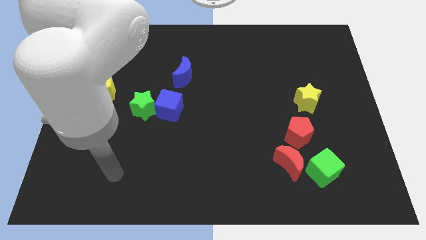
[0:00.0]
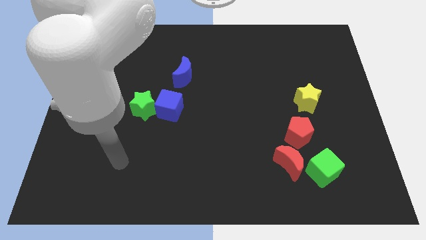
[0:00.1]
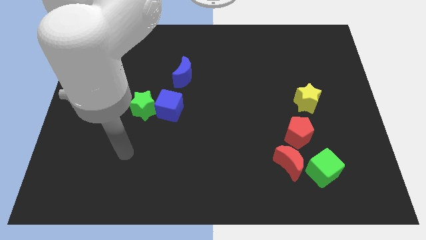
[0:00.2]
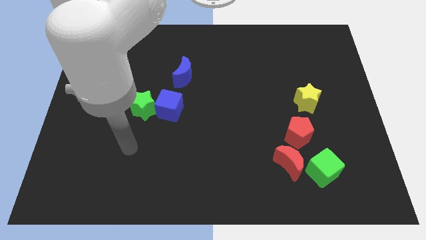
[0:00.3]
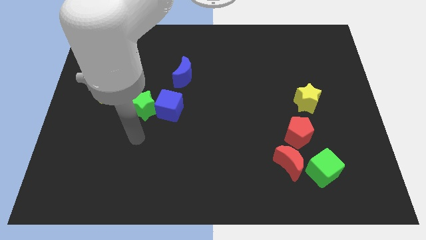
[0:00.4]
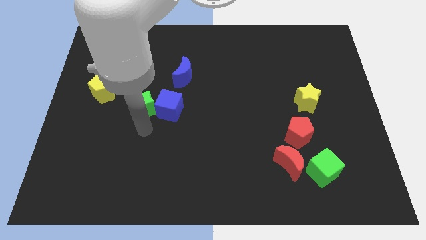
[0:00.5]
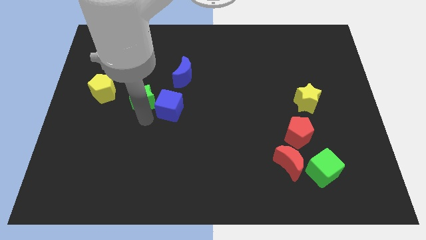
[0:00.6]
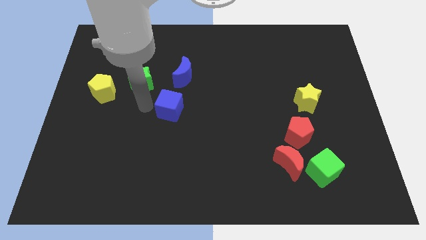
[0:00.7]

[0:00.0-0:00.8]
pull the blue cube apart from the green star

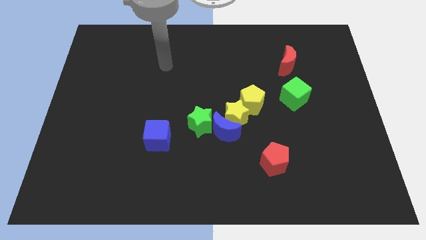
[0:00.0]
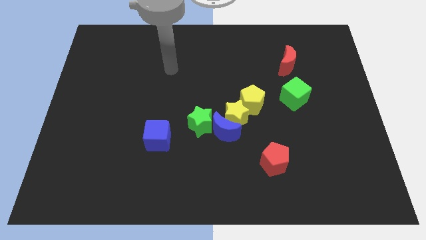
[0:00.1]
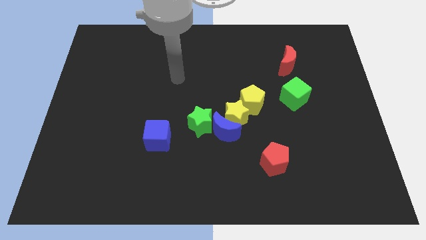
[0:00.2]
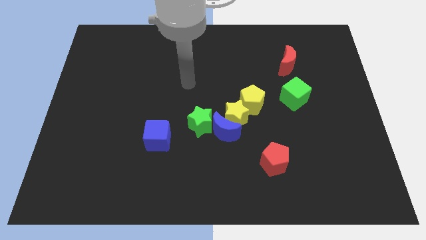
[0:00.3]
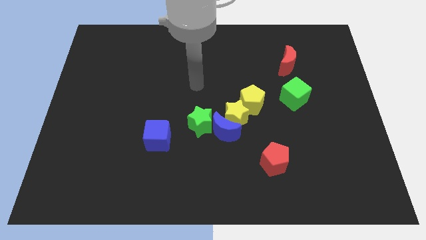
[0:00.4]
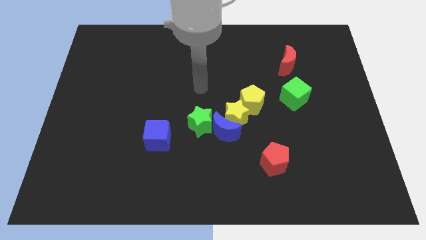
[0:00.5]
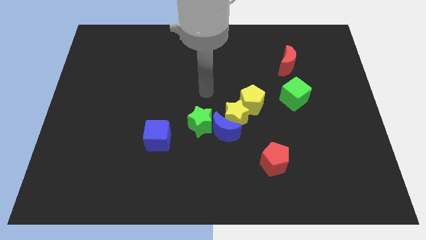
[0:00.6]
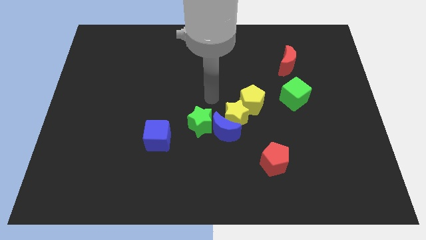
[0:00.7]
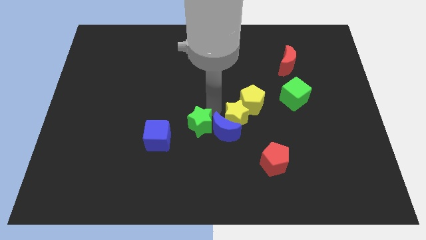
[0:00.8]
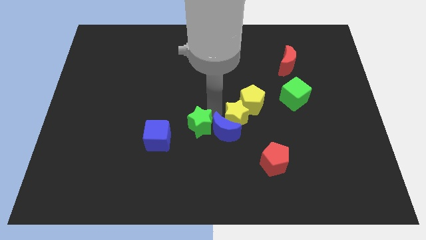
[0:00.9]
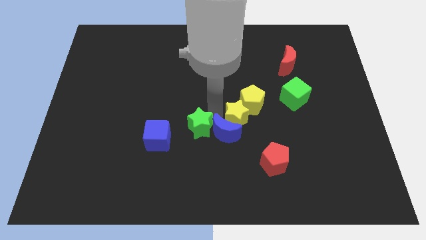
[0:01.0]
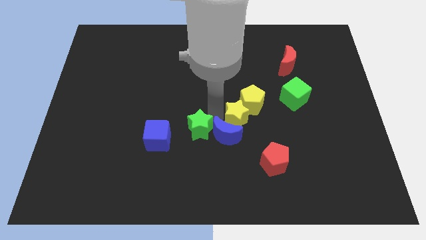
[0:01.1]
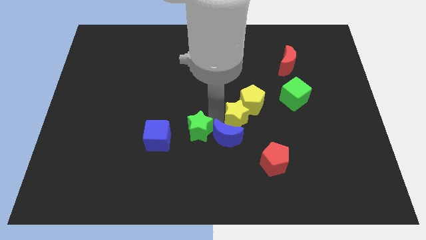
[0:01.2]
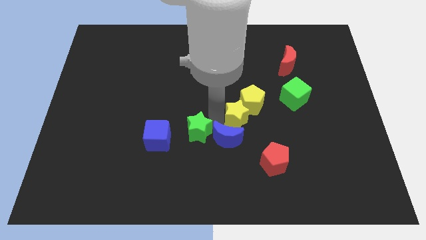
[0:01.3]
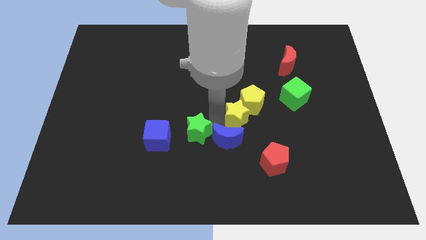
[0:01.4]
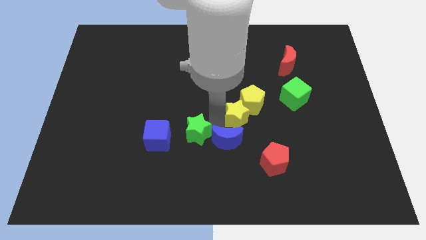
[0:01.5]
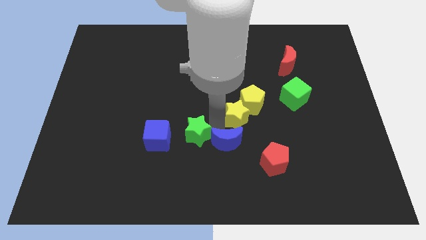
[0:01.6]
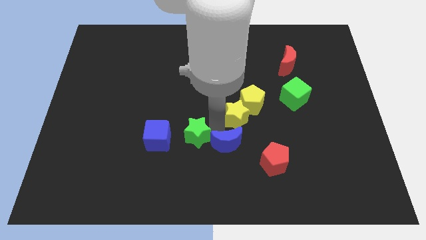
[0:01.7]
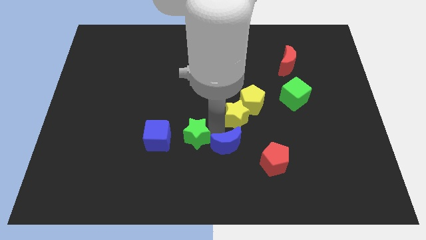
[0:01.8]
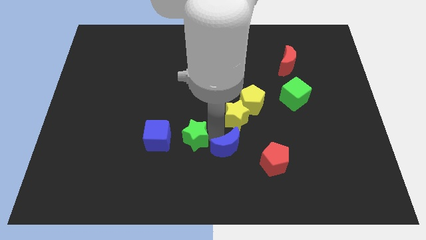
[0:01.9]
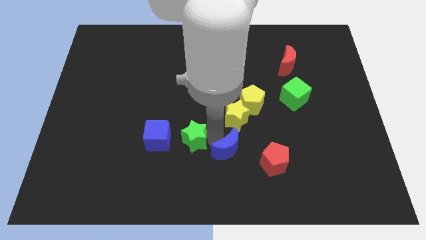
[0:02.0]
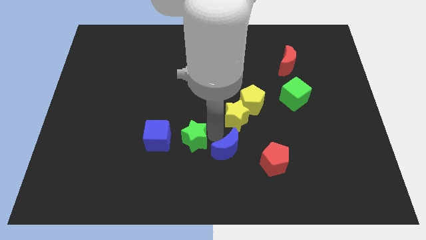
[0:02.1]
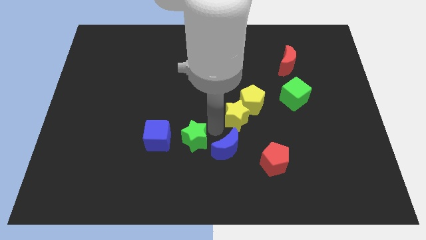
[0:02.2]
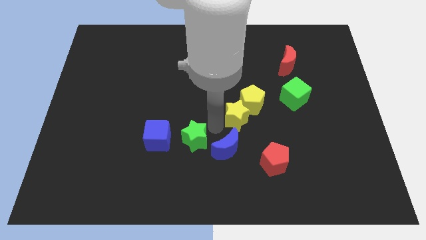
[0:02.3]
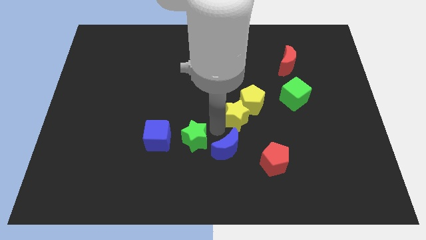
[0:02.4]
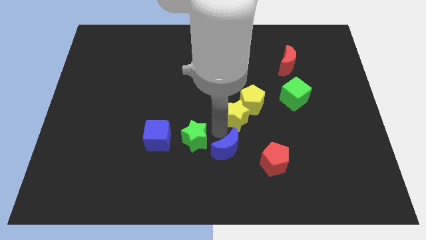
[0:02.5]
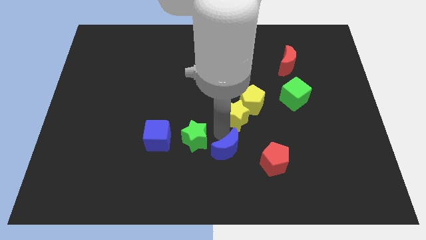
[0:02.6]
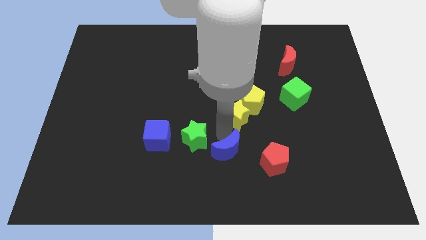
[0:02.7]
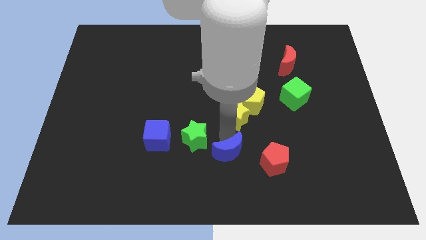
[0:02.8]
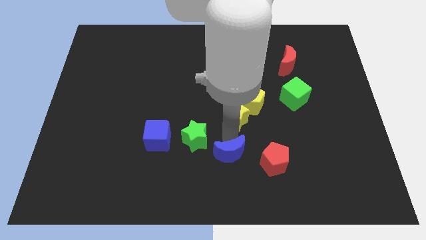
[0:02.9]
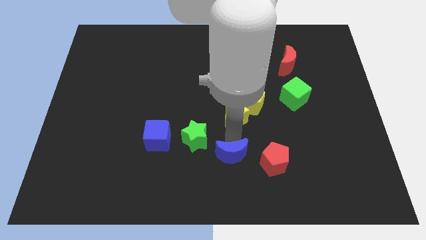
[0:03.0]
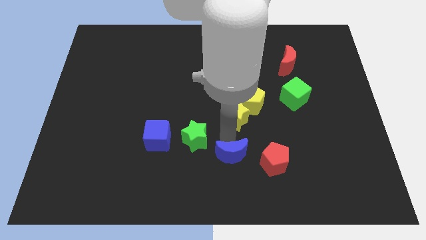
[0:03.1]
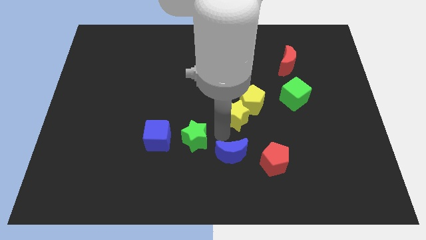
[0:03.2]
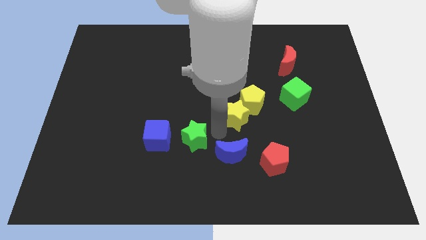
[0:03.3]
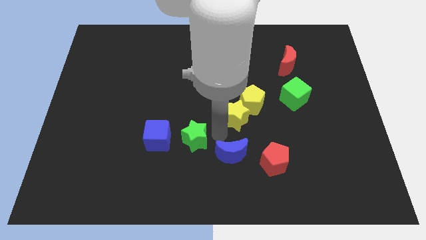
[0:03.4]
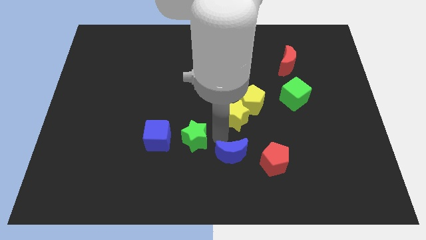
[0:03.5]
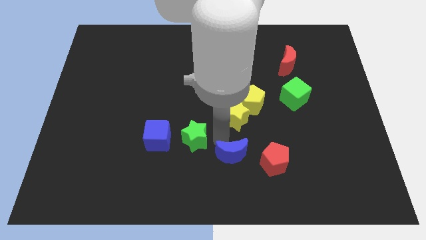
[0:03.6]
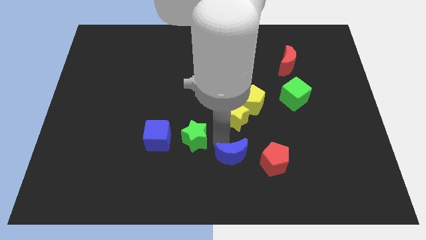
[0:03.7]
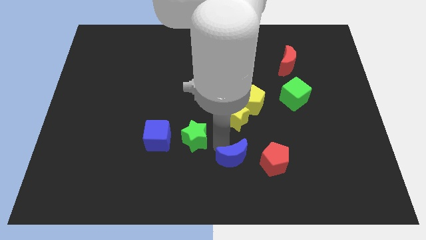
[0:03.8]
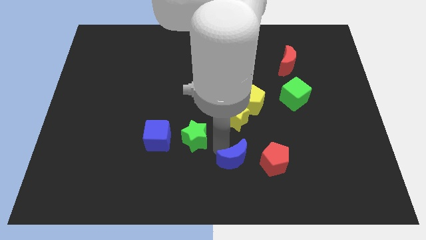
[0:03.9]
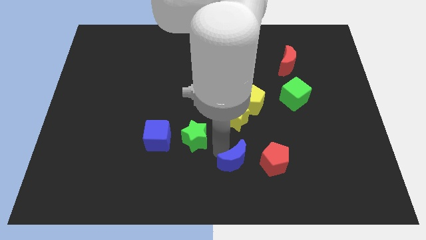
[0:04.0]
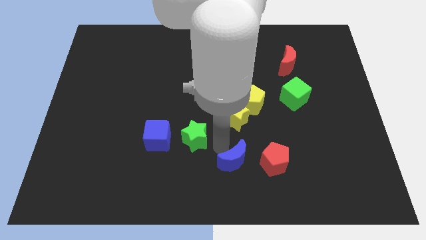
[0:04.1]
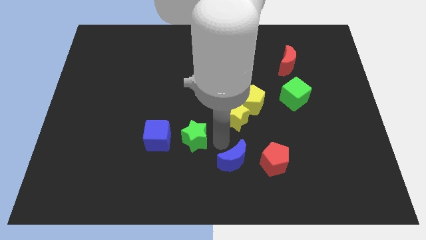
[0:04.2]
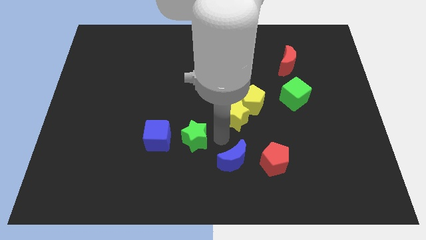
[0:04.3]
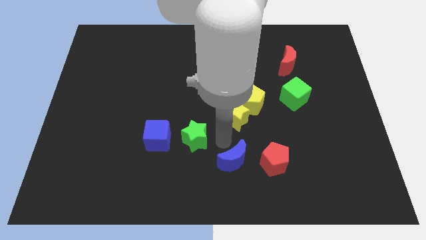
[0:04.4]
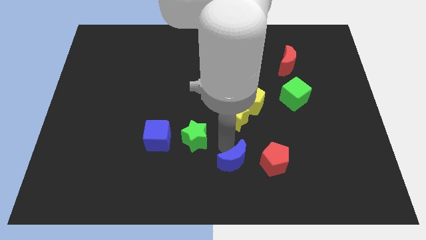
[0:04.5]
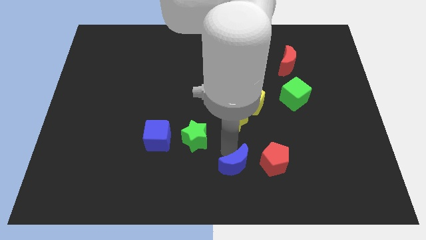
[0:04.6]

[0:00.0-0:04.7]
separate the blue moon from the yellow star and green star

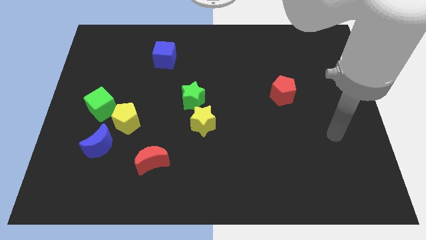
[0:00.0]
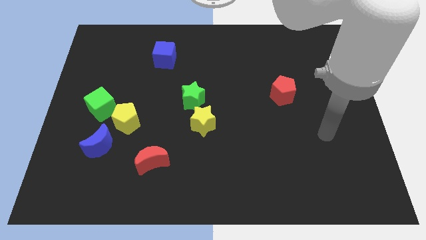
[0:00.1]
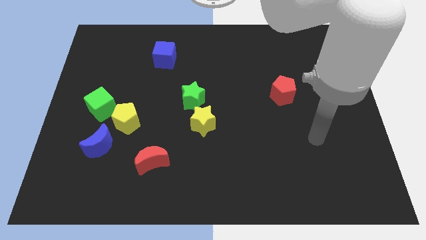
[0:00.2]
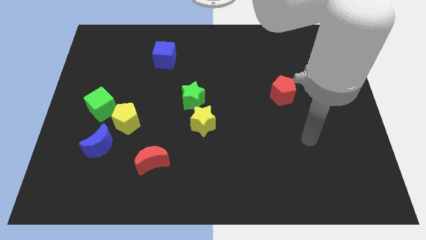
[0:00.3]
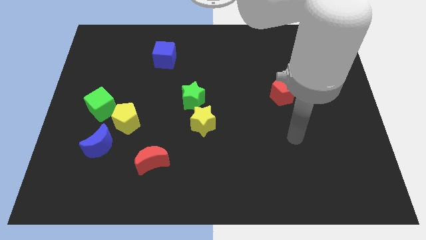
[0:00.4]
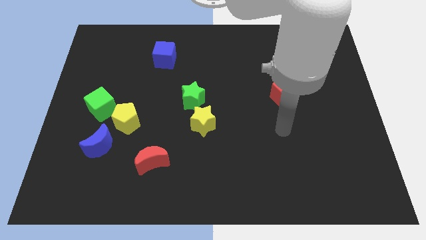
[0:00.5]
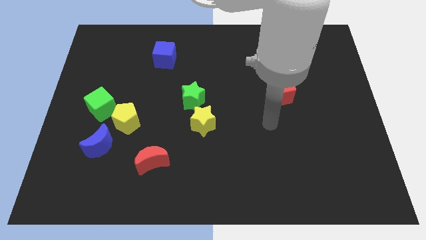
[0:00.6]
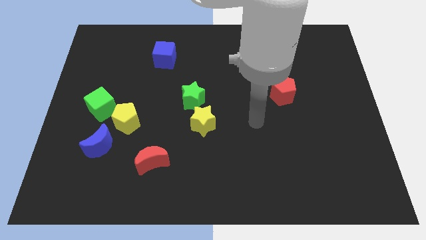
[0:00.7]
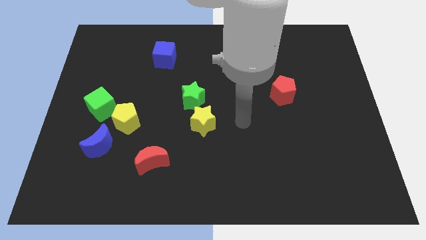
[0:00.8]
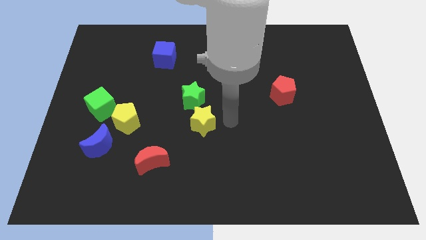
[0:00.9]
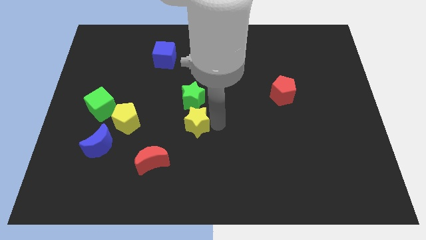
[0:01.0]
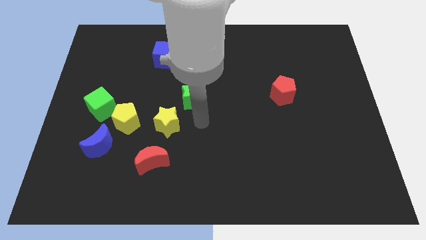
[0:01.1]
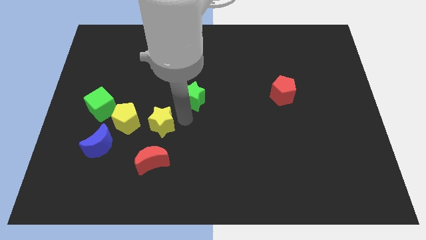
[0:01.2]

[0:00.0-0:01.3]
separate the green star from the yellow star

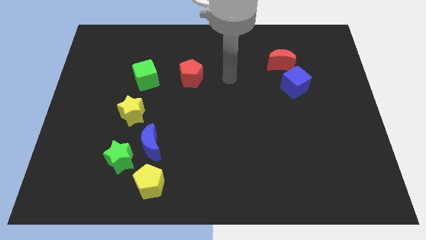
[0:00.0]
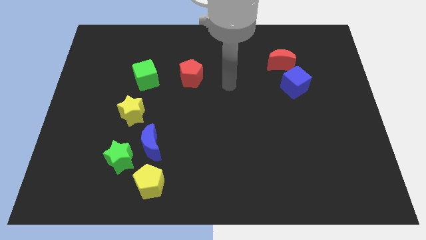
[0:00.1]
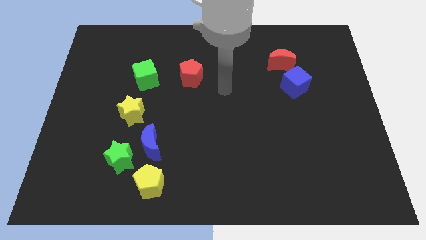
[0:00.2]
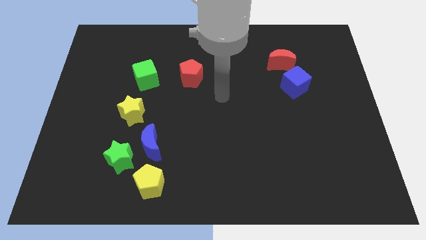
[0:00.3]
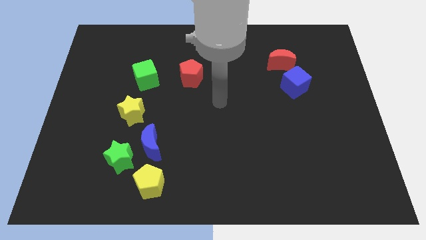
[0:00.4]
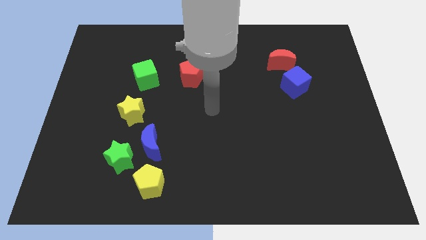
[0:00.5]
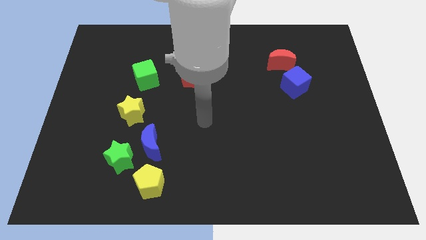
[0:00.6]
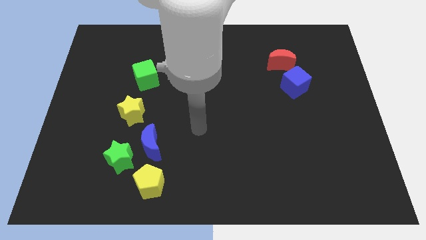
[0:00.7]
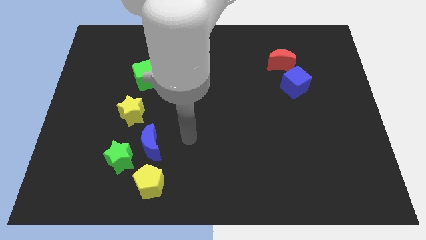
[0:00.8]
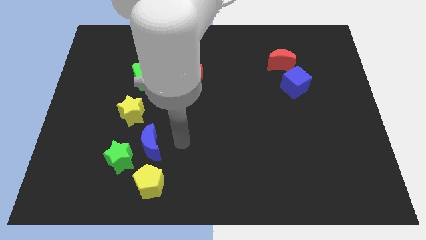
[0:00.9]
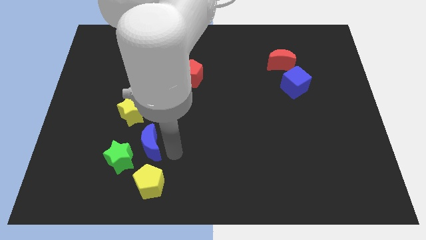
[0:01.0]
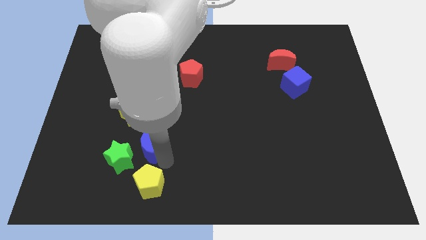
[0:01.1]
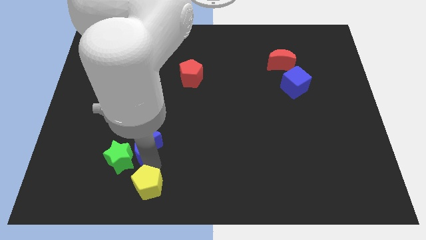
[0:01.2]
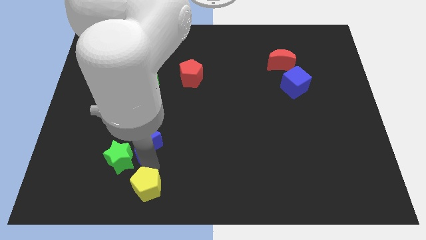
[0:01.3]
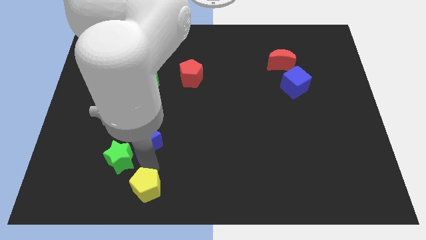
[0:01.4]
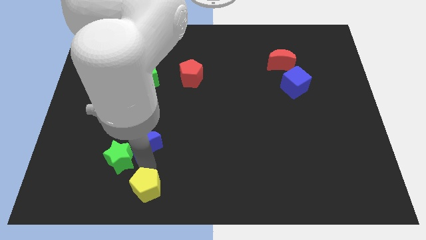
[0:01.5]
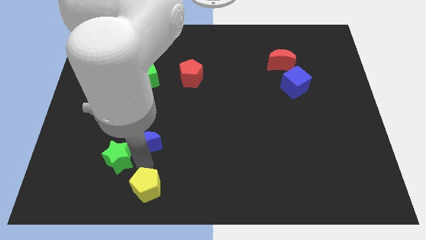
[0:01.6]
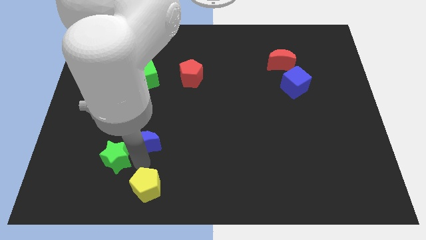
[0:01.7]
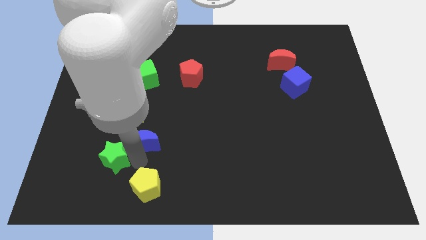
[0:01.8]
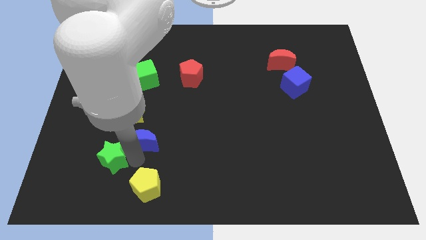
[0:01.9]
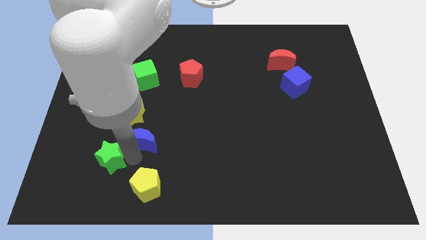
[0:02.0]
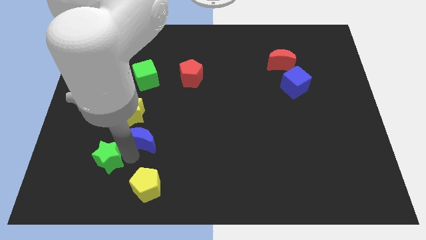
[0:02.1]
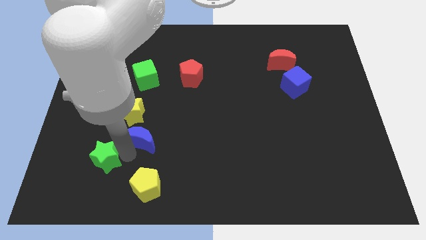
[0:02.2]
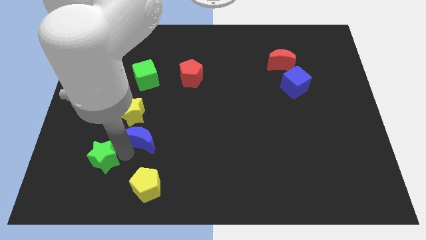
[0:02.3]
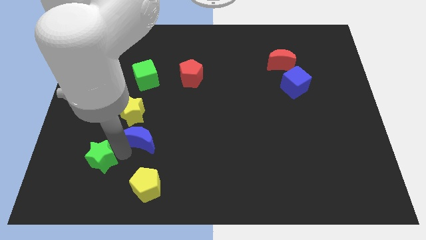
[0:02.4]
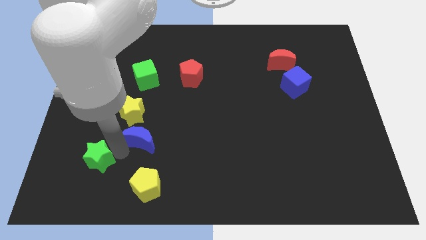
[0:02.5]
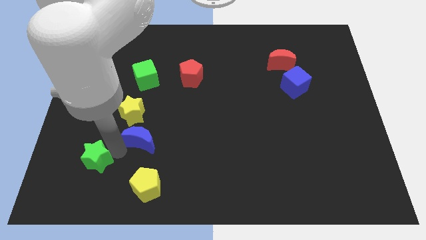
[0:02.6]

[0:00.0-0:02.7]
separate the green star from the blue moon and yellow pentagon
